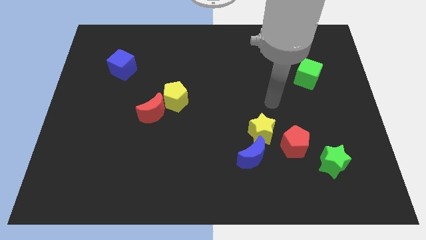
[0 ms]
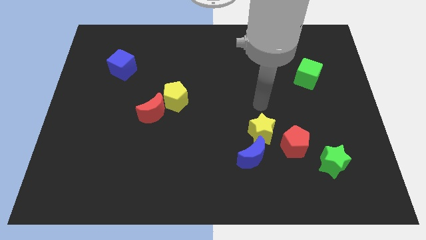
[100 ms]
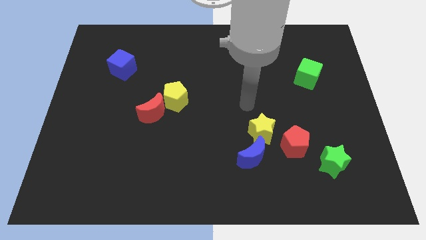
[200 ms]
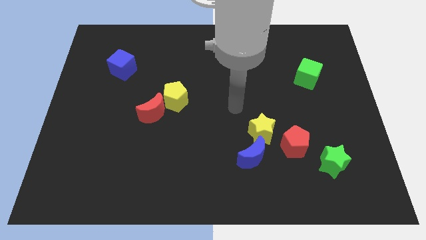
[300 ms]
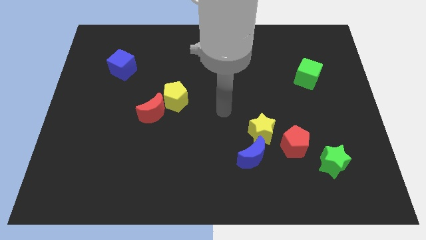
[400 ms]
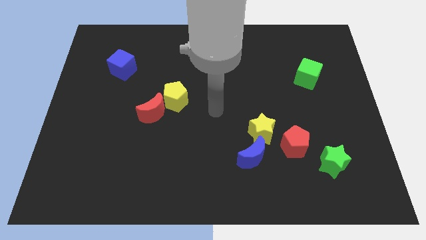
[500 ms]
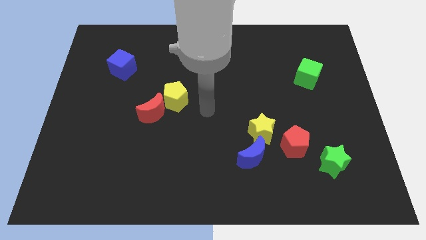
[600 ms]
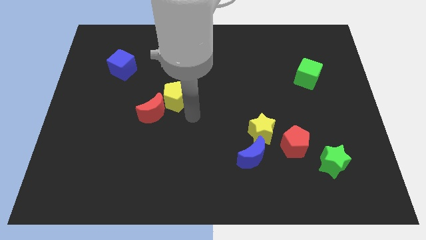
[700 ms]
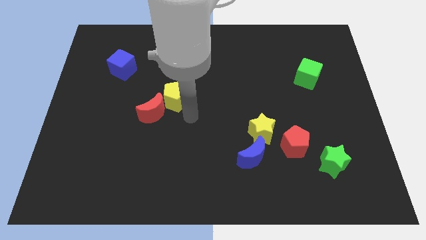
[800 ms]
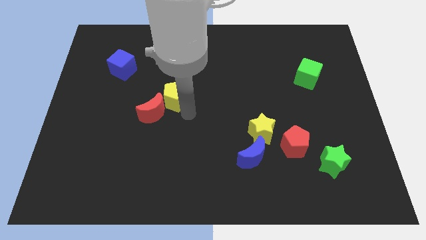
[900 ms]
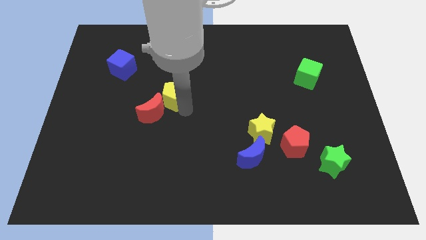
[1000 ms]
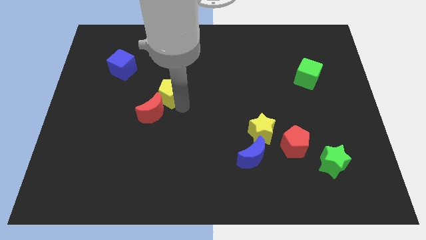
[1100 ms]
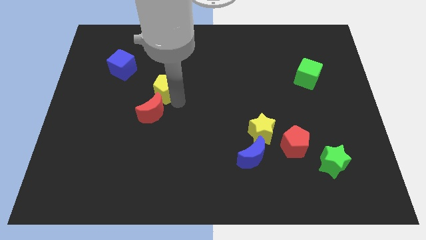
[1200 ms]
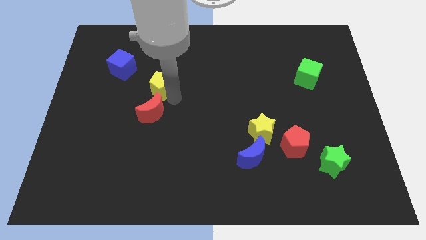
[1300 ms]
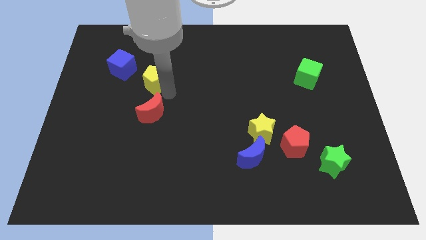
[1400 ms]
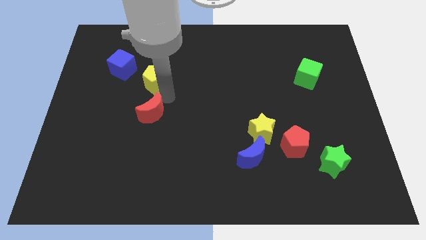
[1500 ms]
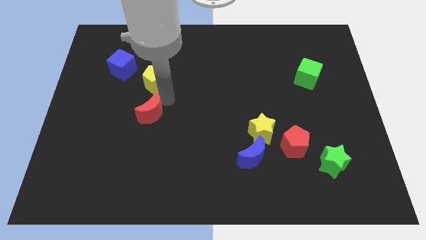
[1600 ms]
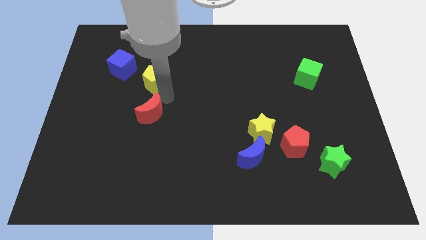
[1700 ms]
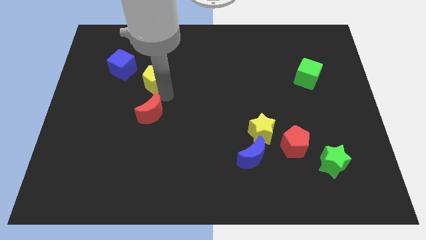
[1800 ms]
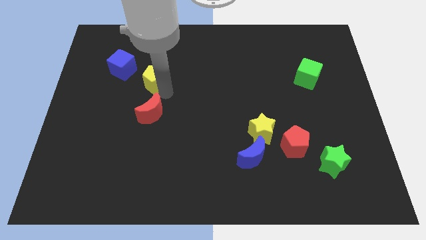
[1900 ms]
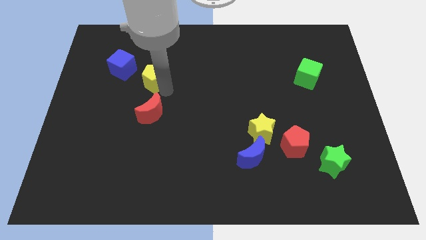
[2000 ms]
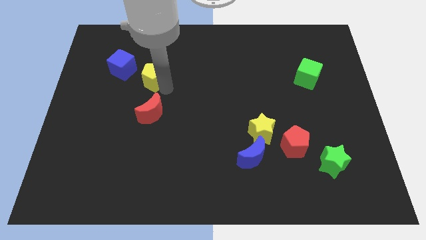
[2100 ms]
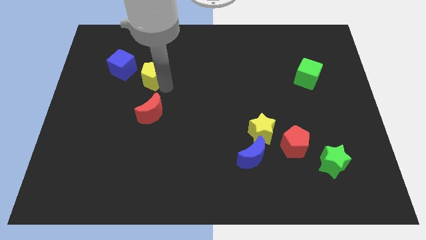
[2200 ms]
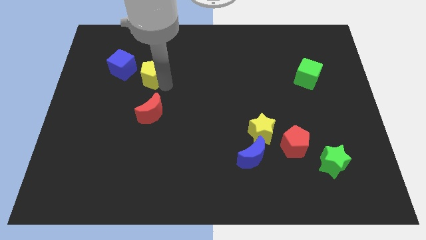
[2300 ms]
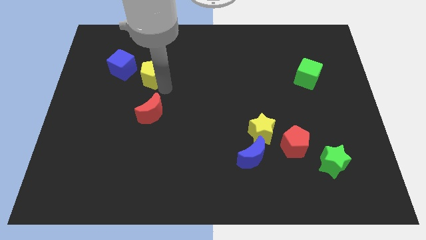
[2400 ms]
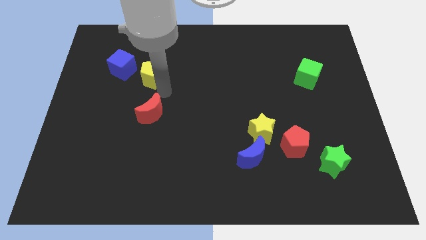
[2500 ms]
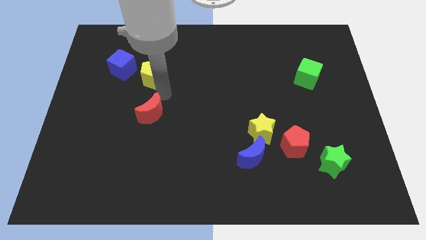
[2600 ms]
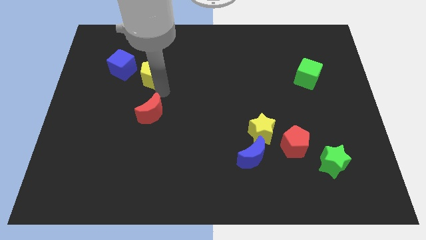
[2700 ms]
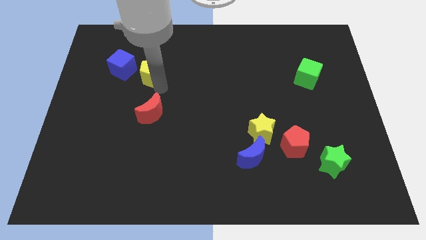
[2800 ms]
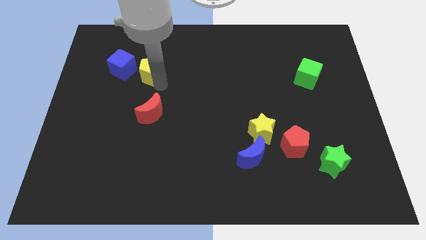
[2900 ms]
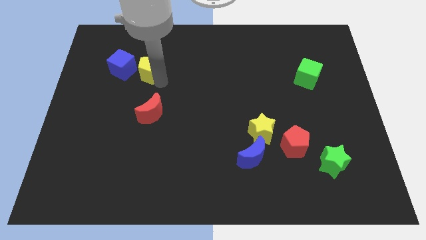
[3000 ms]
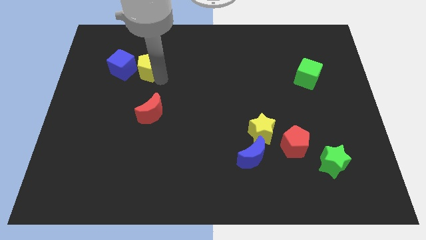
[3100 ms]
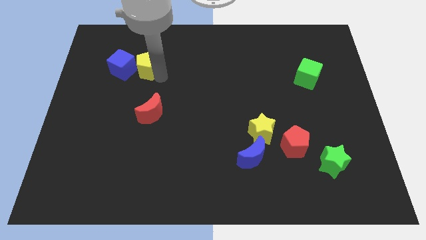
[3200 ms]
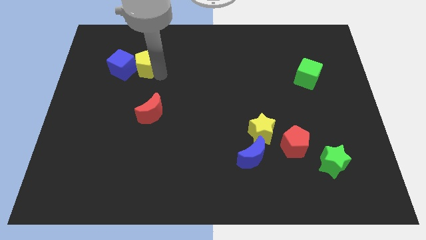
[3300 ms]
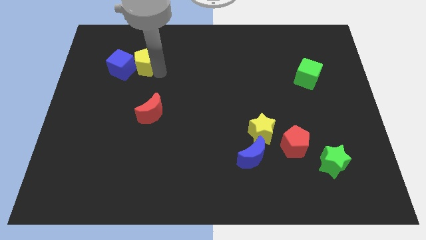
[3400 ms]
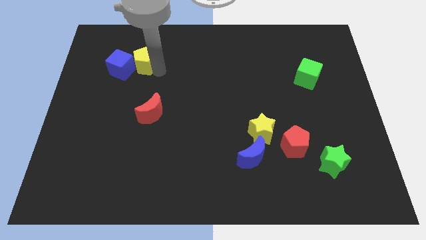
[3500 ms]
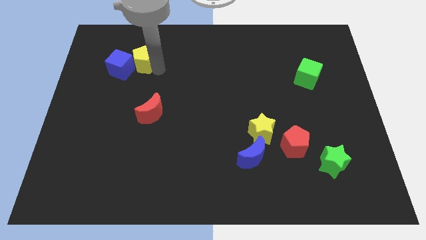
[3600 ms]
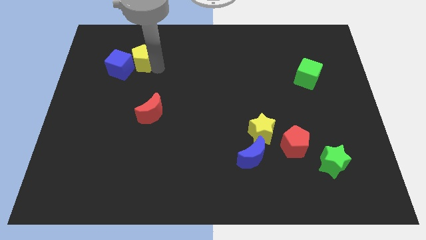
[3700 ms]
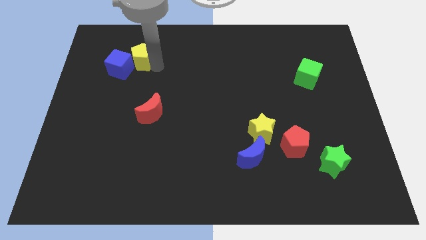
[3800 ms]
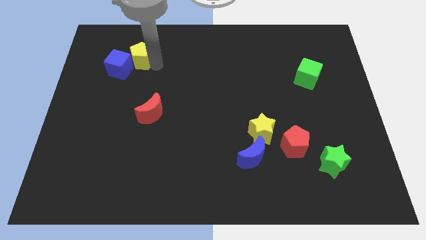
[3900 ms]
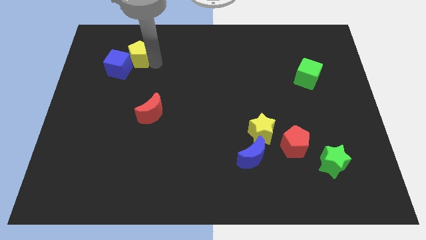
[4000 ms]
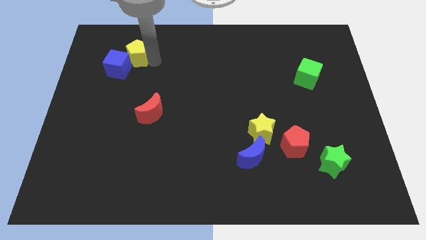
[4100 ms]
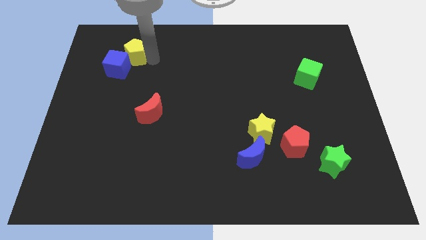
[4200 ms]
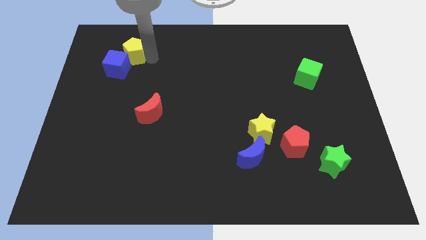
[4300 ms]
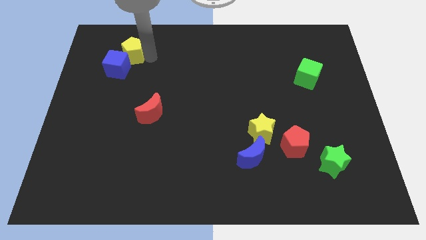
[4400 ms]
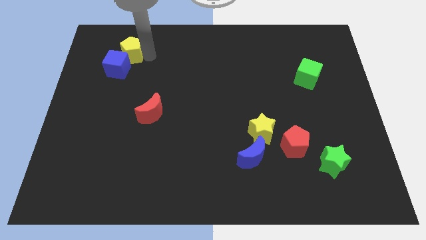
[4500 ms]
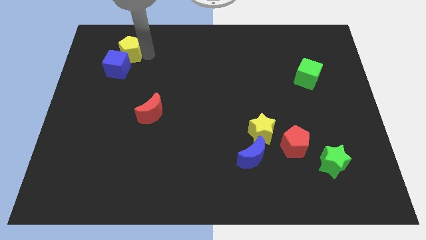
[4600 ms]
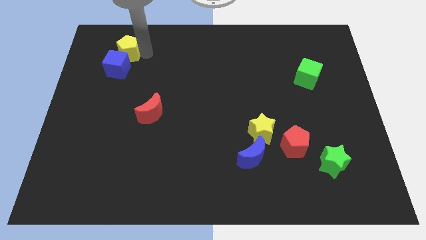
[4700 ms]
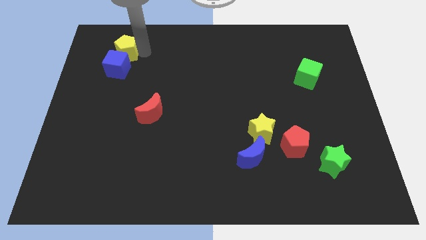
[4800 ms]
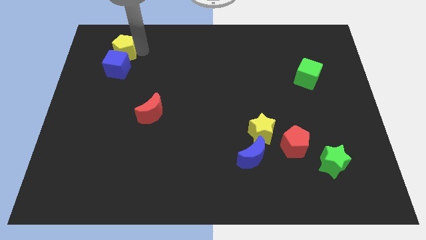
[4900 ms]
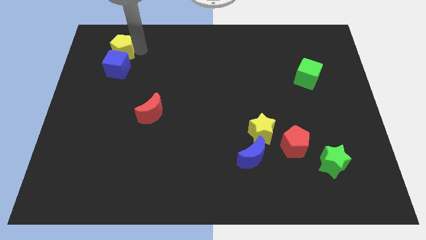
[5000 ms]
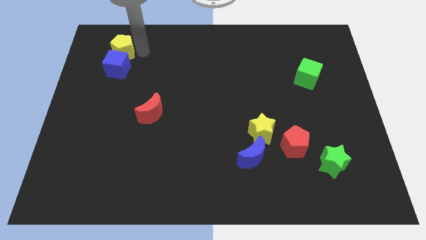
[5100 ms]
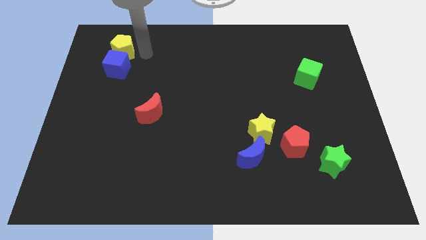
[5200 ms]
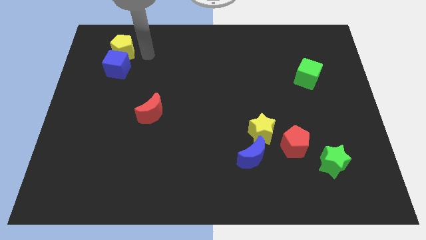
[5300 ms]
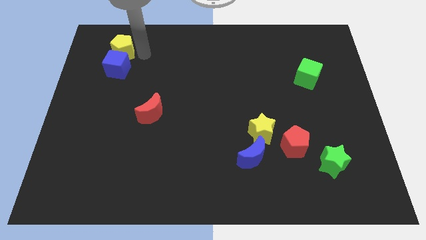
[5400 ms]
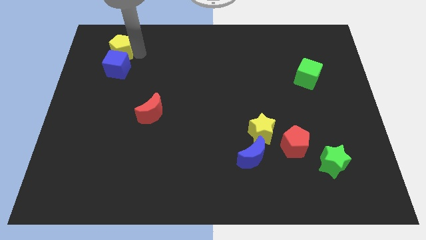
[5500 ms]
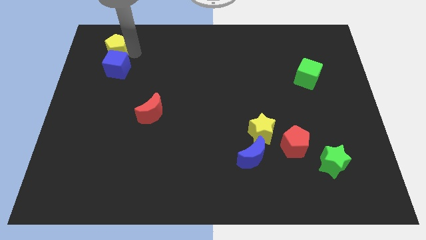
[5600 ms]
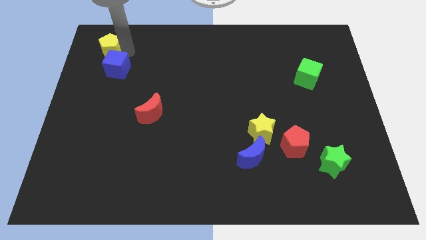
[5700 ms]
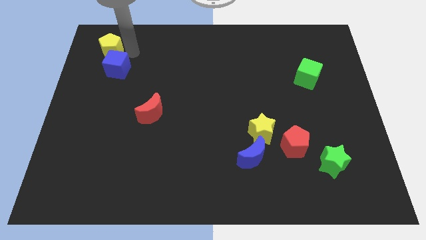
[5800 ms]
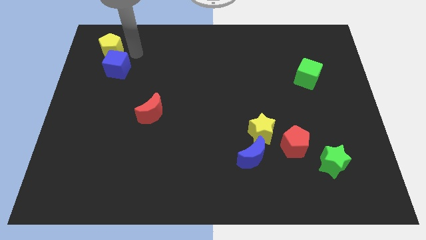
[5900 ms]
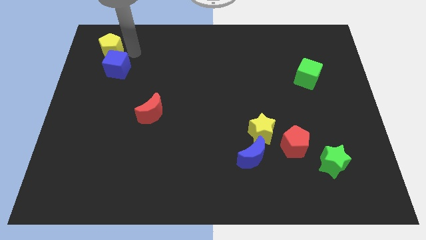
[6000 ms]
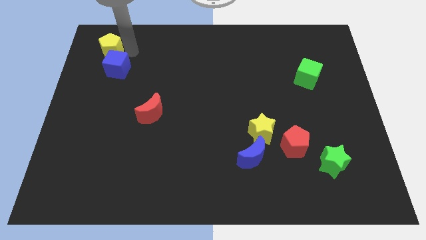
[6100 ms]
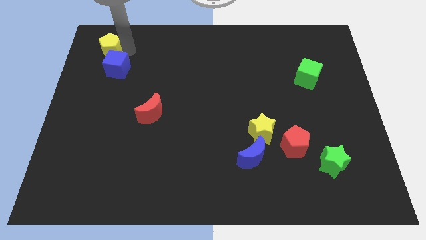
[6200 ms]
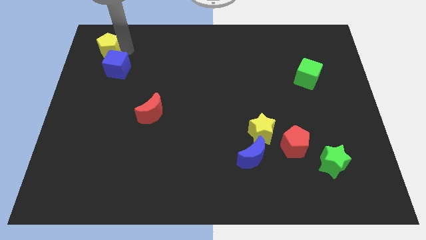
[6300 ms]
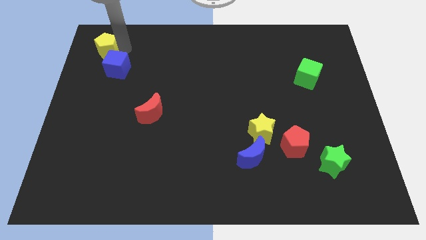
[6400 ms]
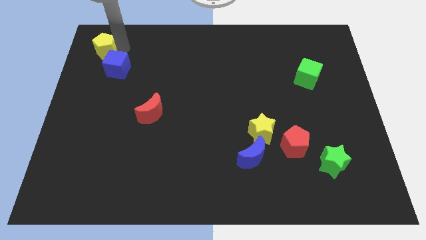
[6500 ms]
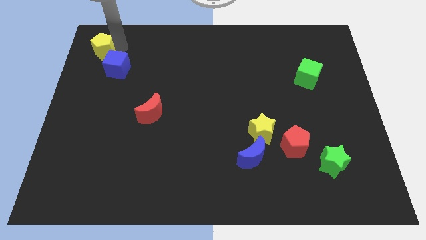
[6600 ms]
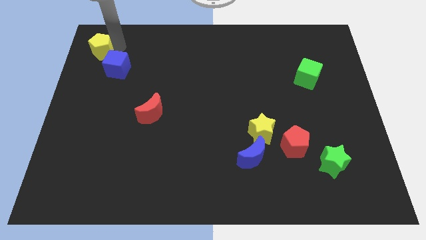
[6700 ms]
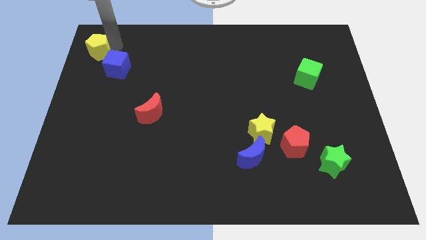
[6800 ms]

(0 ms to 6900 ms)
push the yellow pentagon to the top left of the board

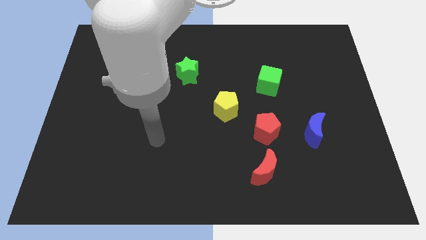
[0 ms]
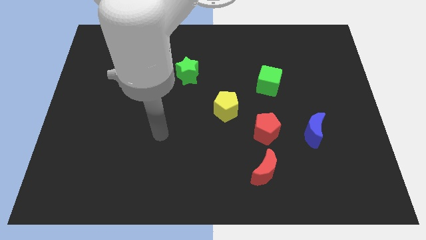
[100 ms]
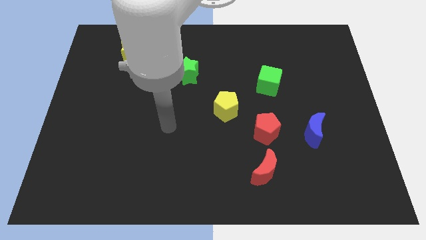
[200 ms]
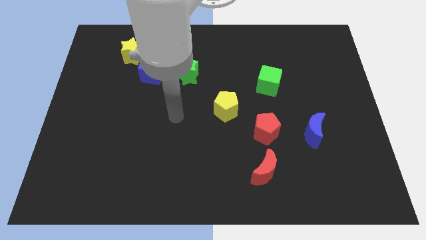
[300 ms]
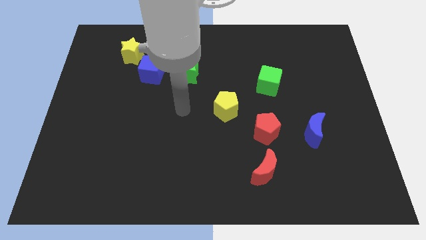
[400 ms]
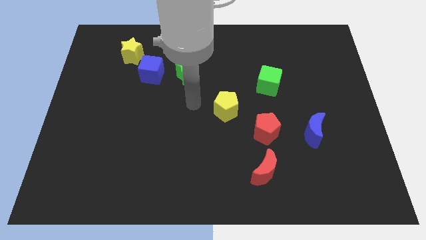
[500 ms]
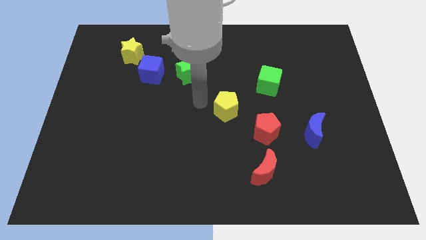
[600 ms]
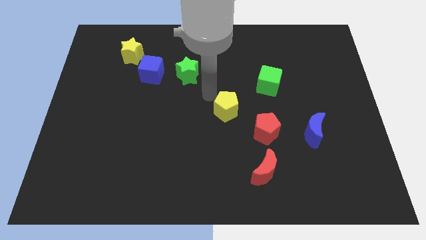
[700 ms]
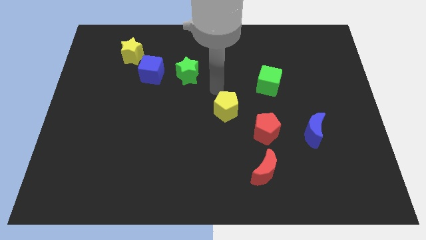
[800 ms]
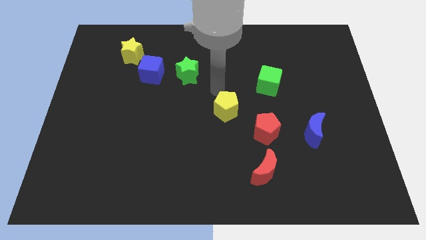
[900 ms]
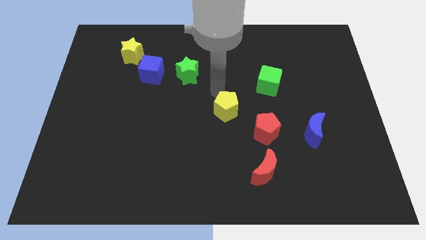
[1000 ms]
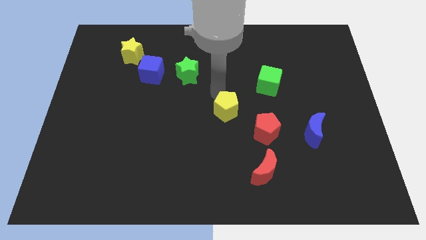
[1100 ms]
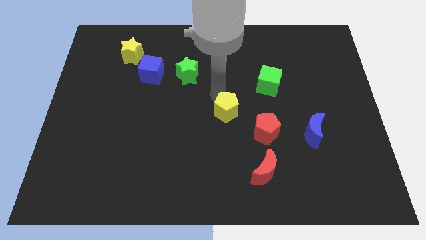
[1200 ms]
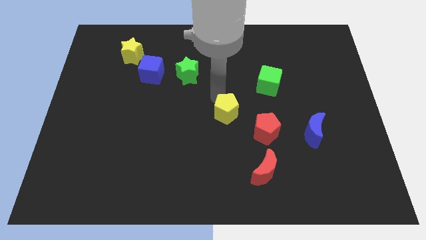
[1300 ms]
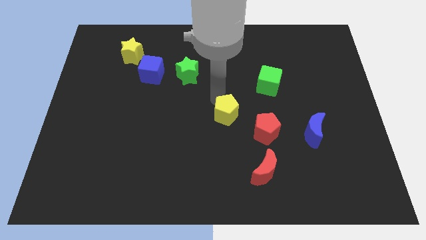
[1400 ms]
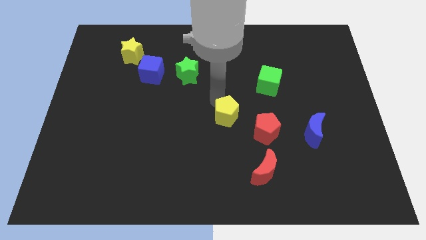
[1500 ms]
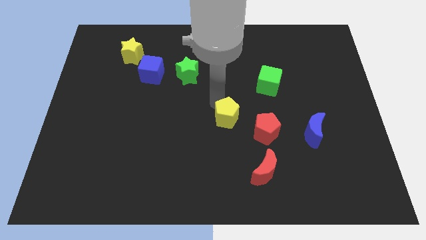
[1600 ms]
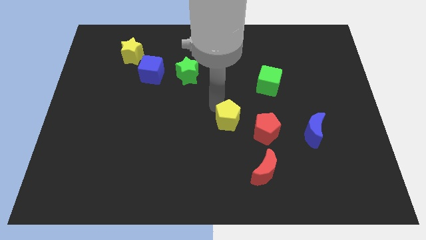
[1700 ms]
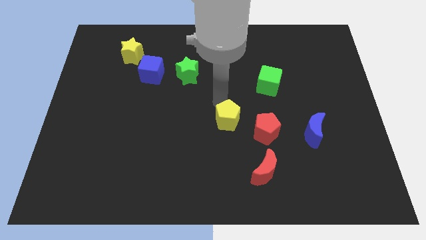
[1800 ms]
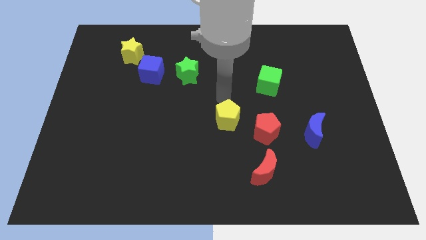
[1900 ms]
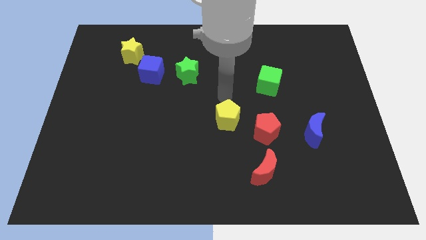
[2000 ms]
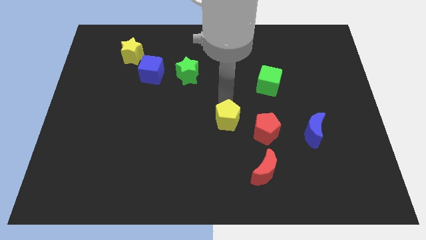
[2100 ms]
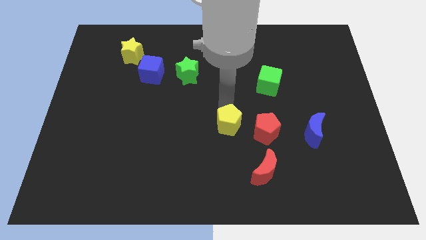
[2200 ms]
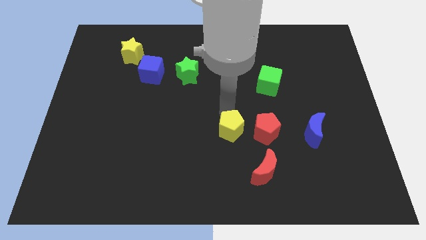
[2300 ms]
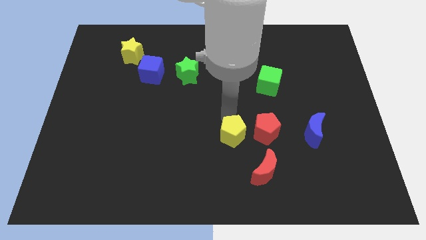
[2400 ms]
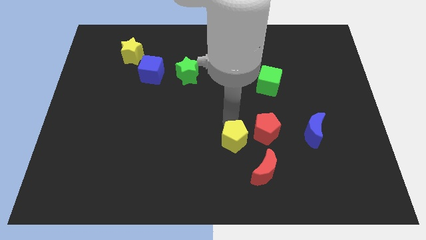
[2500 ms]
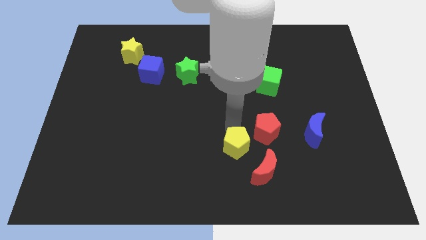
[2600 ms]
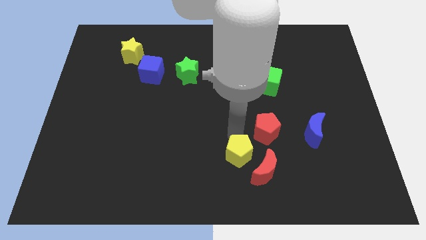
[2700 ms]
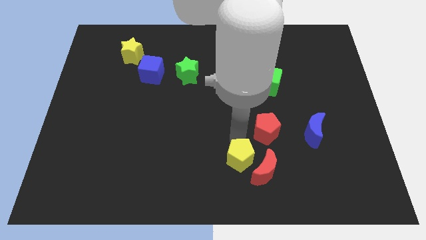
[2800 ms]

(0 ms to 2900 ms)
put the yellow pentagon to the bottom side
